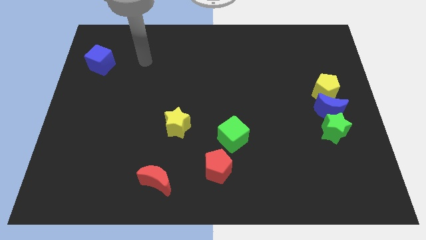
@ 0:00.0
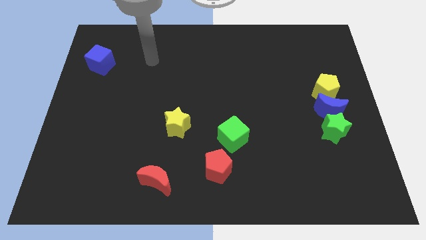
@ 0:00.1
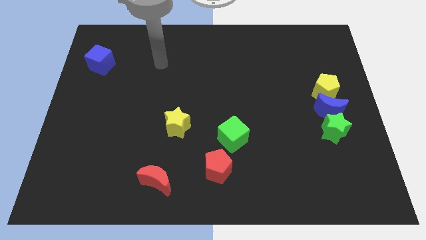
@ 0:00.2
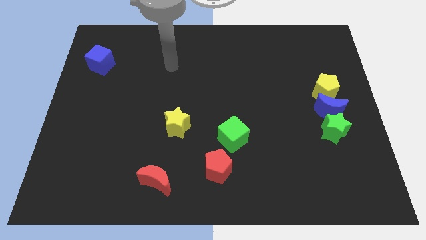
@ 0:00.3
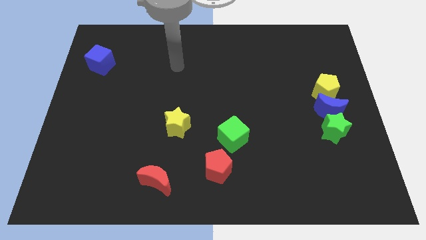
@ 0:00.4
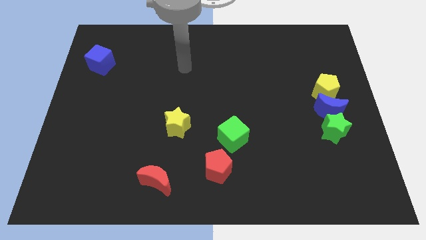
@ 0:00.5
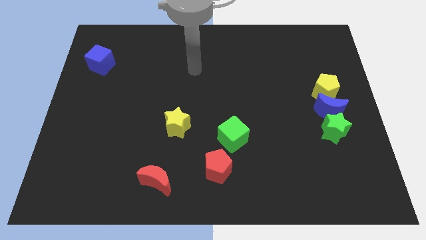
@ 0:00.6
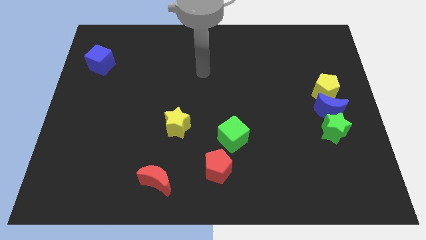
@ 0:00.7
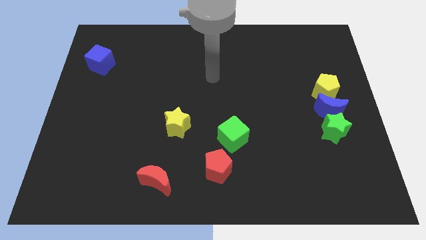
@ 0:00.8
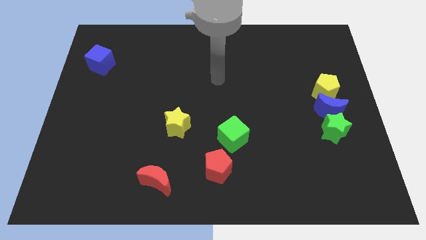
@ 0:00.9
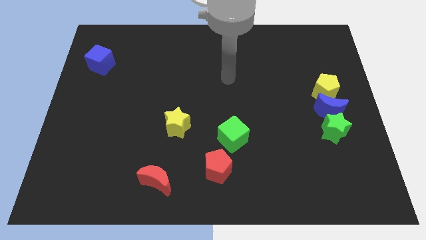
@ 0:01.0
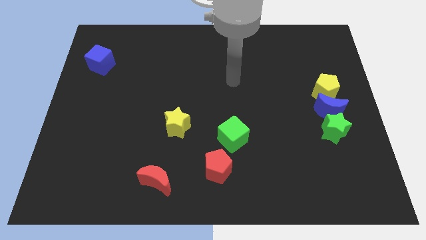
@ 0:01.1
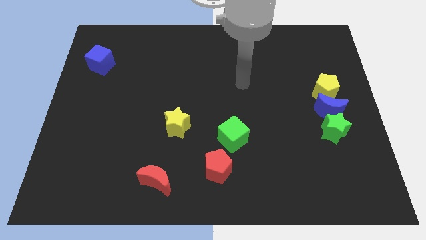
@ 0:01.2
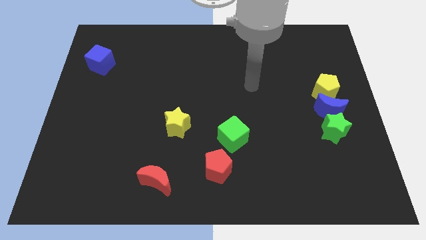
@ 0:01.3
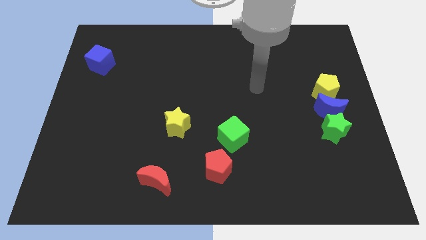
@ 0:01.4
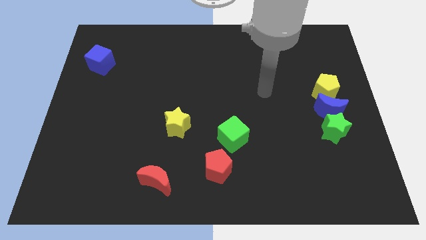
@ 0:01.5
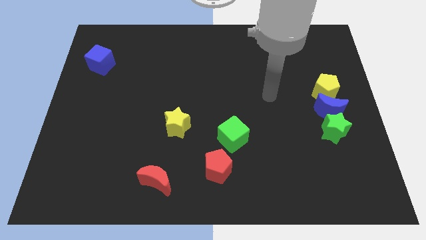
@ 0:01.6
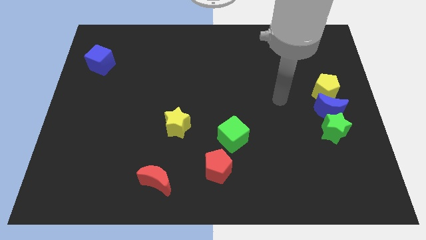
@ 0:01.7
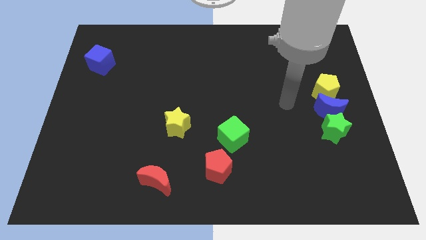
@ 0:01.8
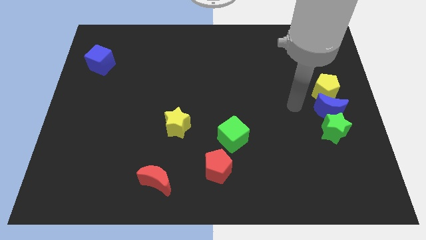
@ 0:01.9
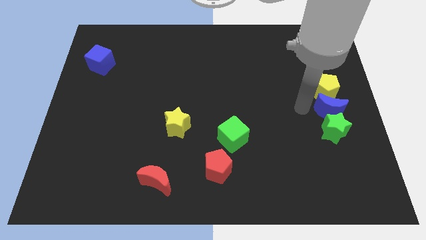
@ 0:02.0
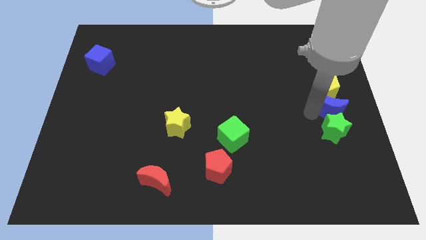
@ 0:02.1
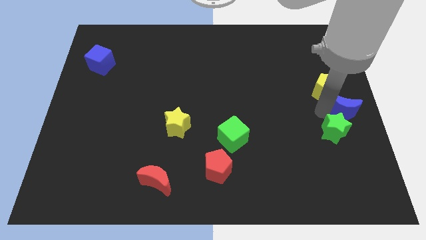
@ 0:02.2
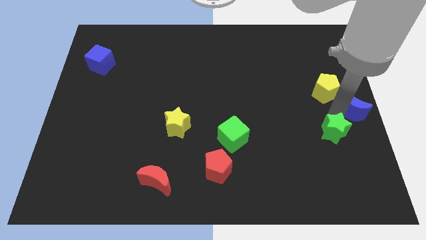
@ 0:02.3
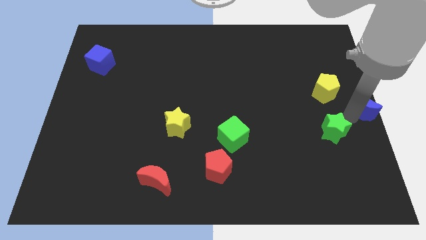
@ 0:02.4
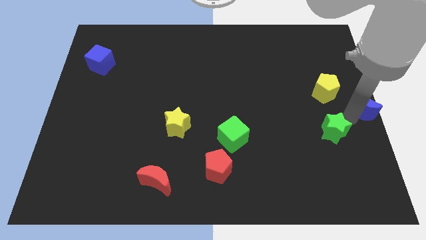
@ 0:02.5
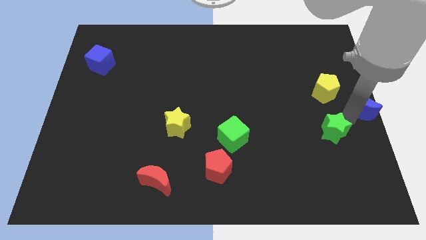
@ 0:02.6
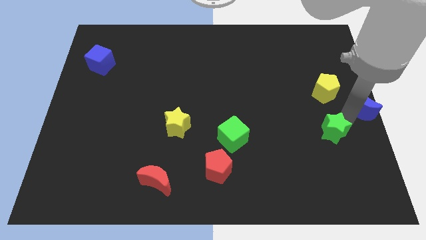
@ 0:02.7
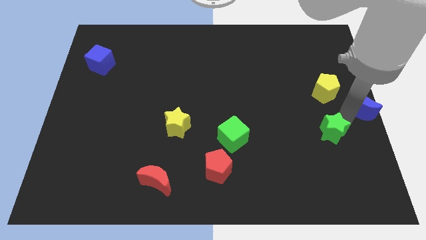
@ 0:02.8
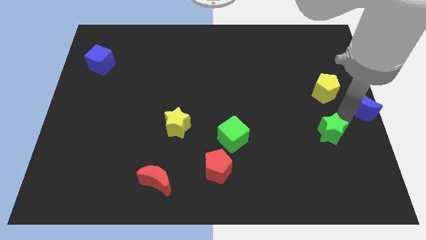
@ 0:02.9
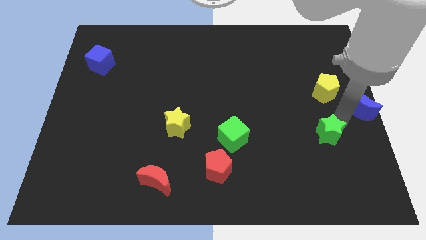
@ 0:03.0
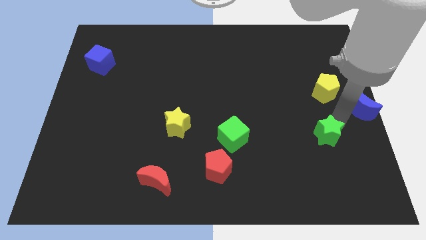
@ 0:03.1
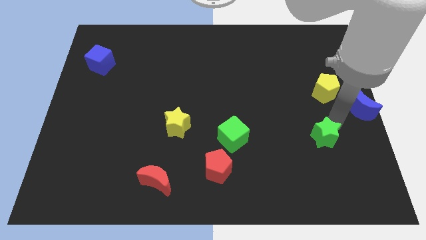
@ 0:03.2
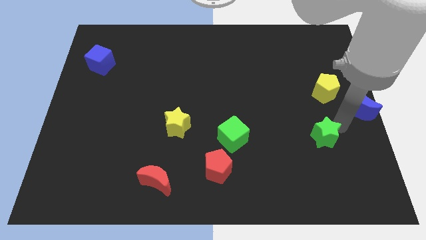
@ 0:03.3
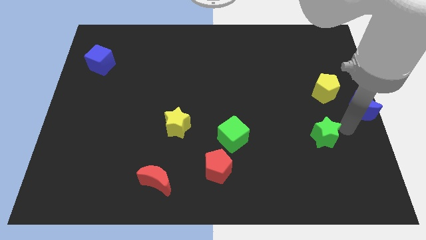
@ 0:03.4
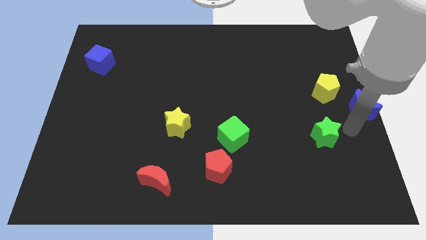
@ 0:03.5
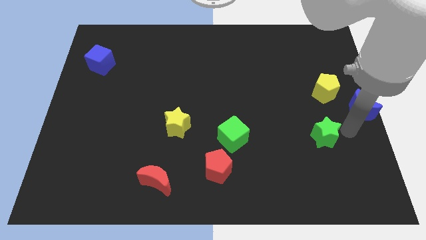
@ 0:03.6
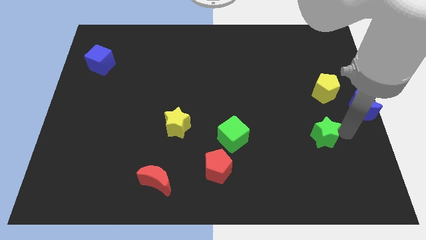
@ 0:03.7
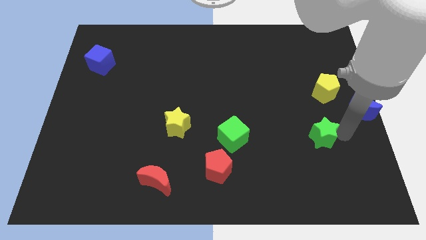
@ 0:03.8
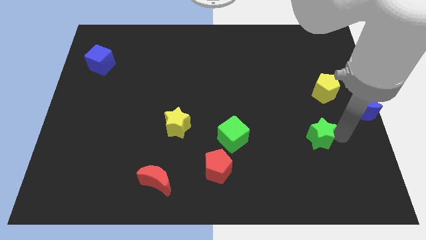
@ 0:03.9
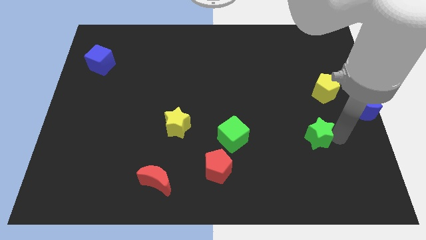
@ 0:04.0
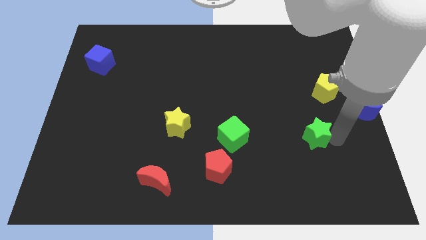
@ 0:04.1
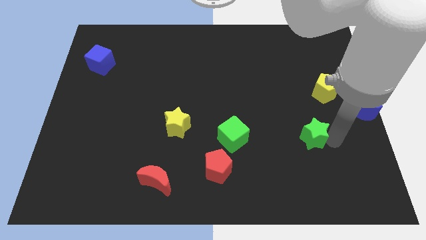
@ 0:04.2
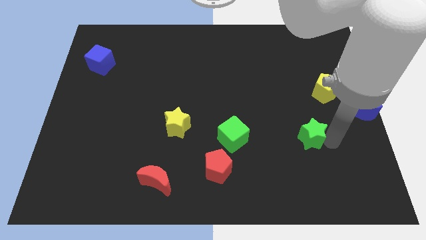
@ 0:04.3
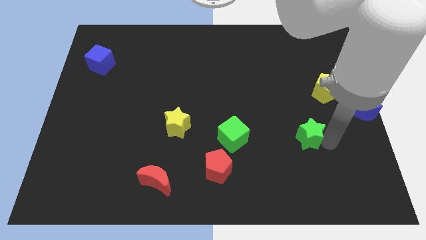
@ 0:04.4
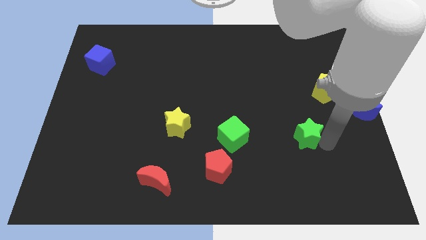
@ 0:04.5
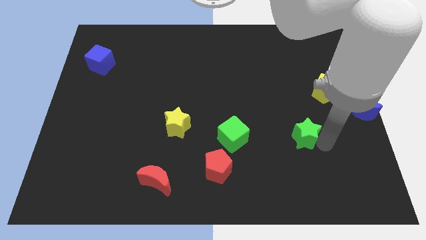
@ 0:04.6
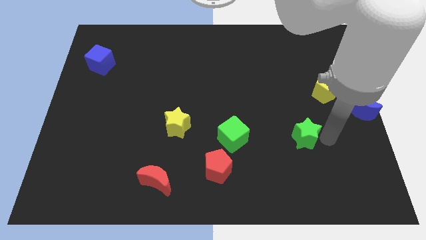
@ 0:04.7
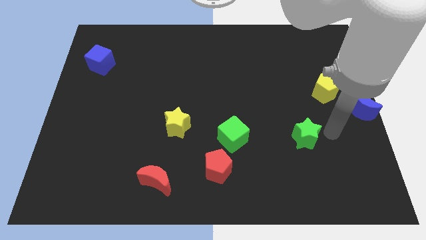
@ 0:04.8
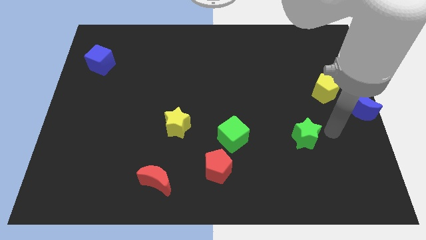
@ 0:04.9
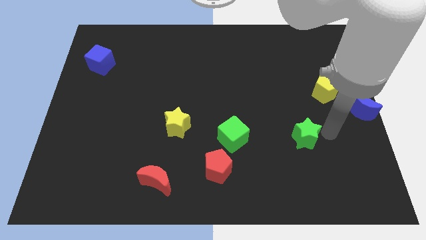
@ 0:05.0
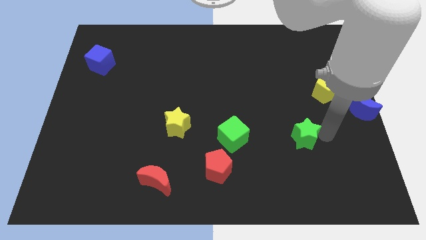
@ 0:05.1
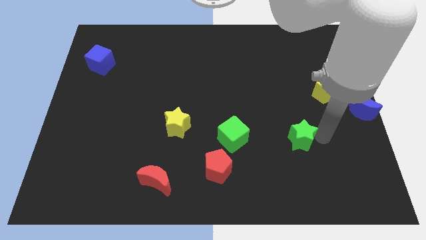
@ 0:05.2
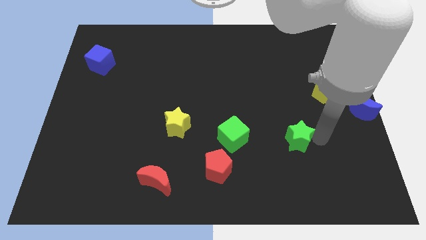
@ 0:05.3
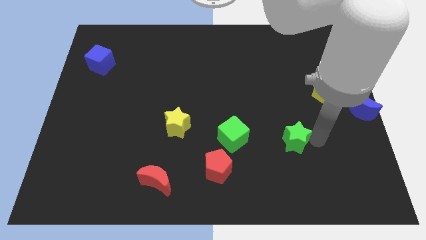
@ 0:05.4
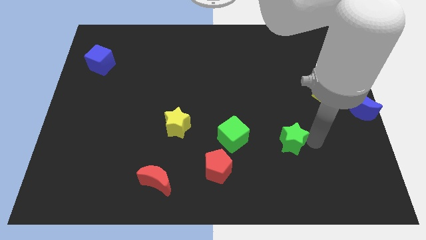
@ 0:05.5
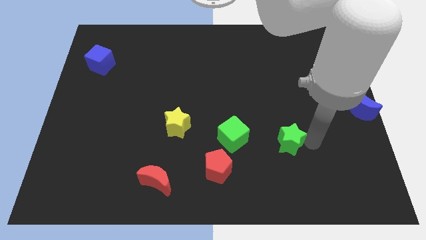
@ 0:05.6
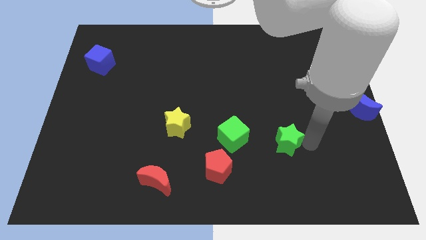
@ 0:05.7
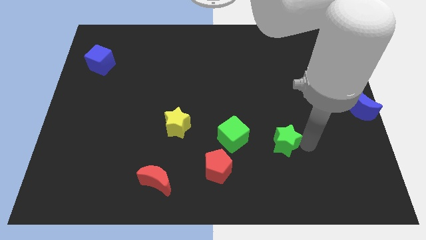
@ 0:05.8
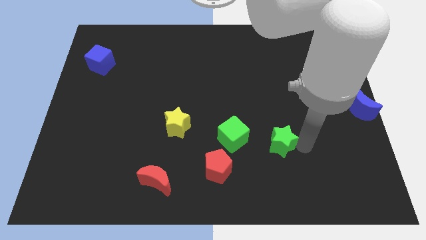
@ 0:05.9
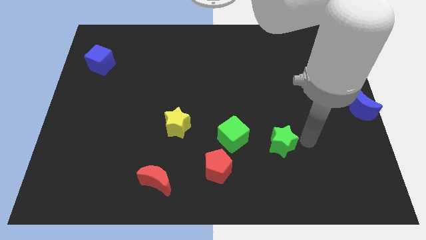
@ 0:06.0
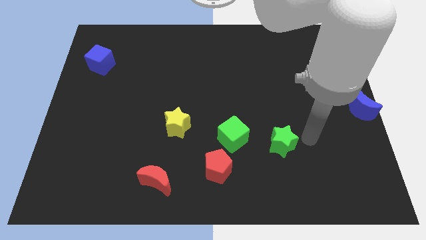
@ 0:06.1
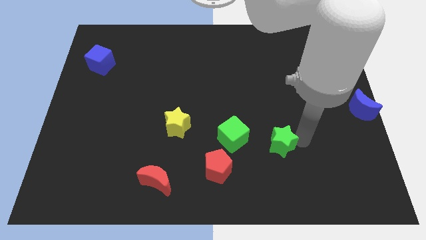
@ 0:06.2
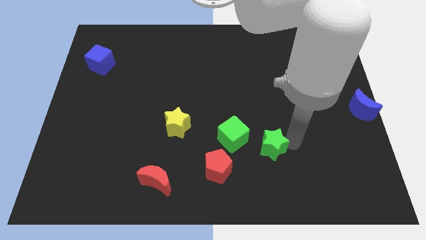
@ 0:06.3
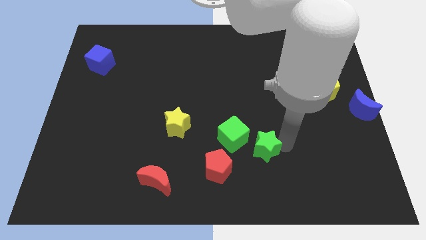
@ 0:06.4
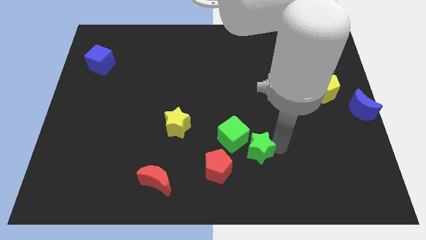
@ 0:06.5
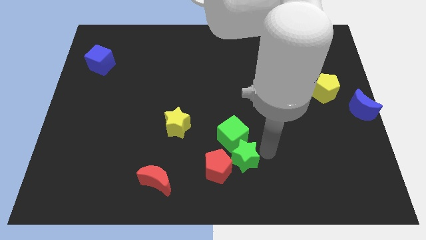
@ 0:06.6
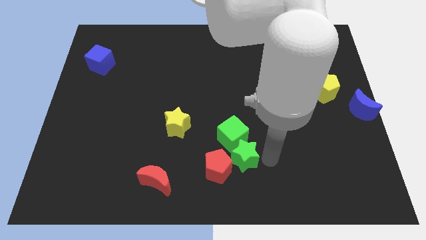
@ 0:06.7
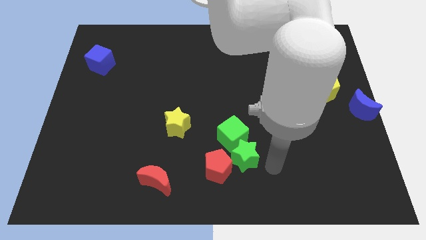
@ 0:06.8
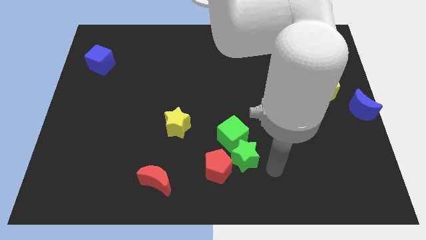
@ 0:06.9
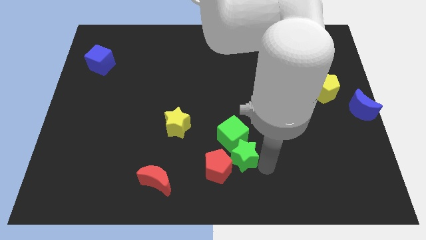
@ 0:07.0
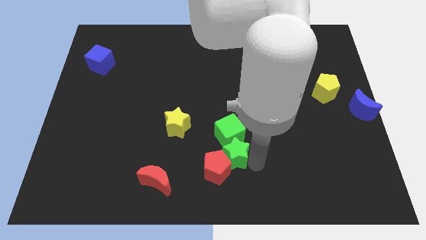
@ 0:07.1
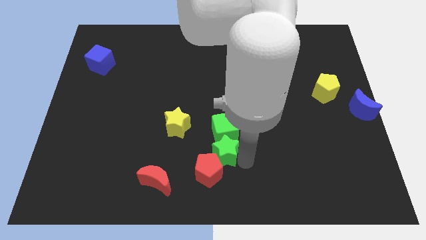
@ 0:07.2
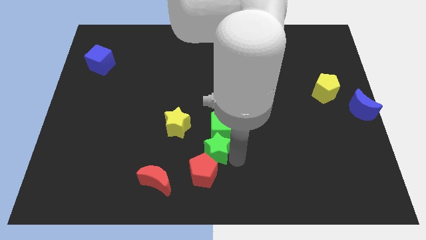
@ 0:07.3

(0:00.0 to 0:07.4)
put the green star to the bottom right of the yellow star

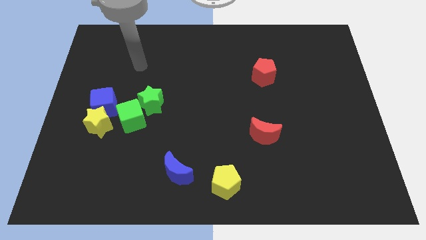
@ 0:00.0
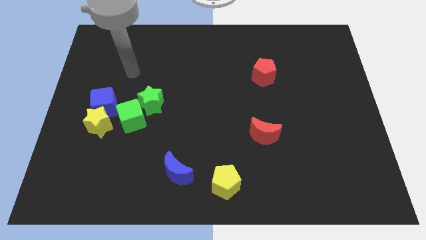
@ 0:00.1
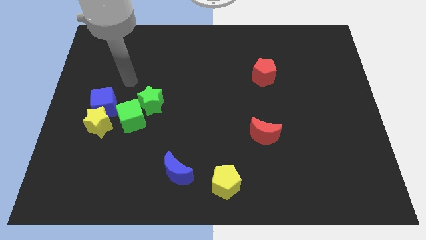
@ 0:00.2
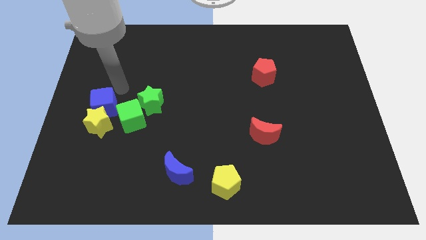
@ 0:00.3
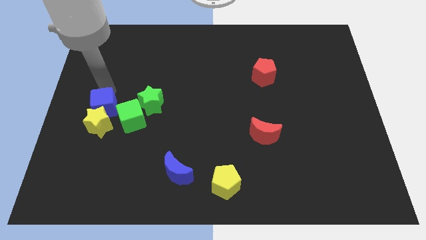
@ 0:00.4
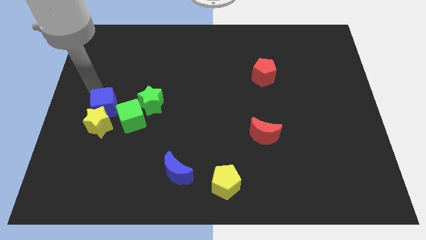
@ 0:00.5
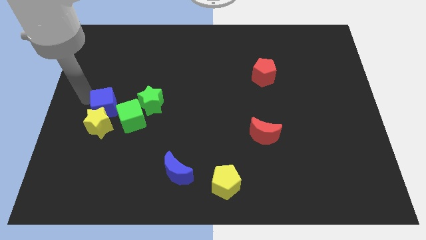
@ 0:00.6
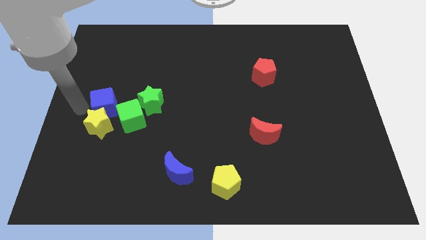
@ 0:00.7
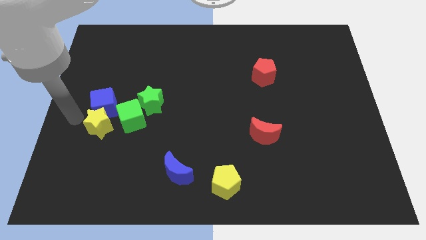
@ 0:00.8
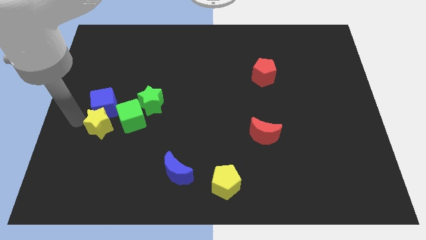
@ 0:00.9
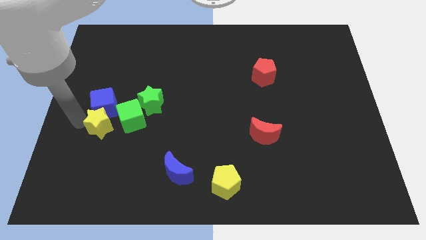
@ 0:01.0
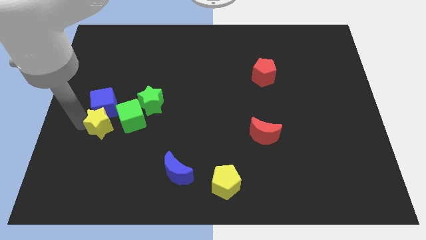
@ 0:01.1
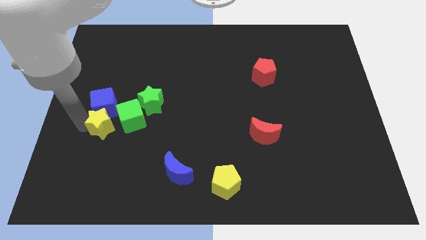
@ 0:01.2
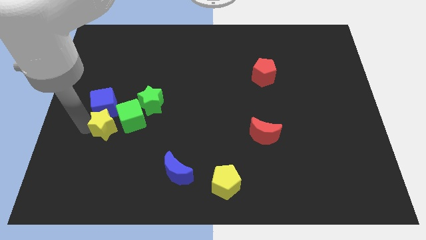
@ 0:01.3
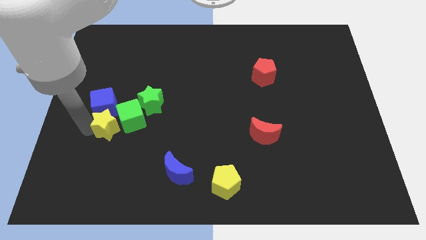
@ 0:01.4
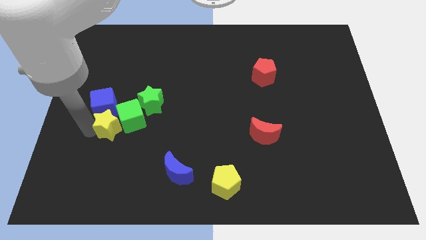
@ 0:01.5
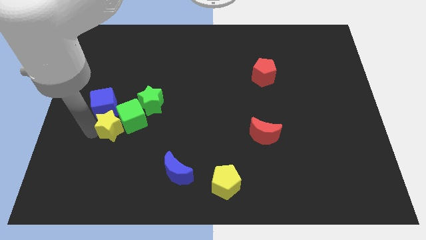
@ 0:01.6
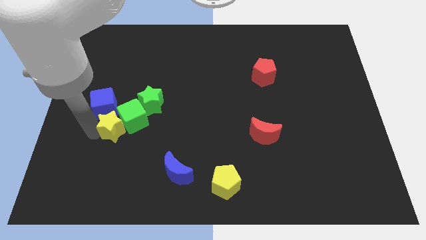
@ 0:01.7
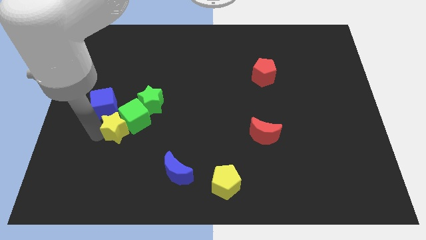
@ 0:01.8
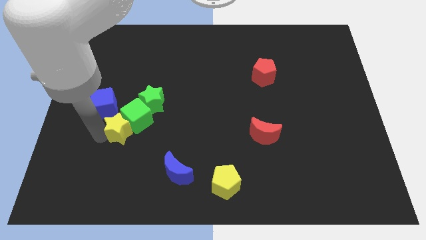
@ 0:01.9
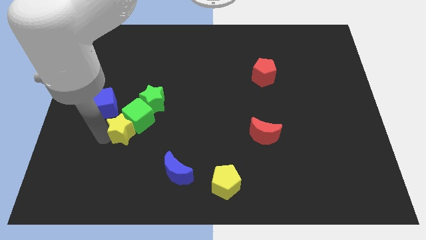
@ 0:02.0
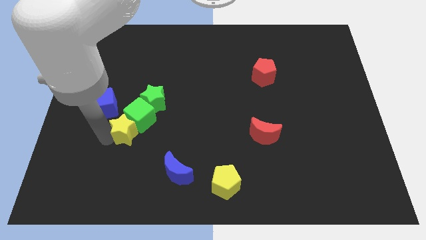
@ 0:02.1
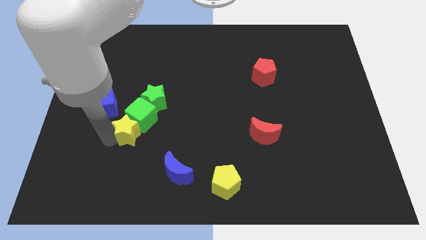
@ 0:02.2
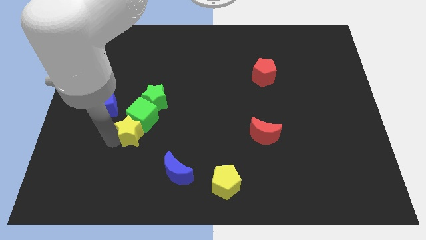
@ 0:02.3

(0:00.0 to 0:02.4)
put the yellow star to the bottom side of the green star
